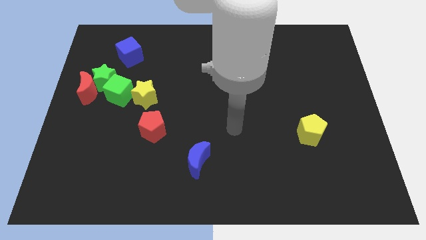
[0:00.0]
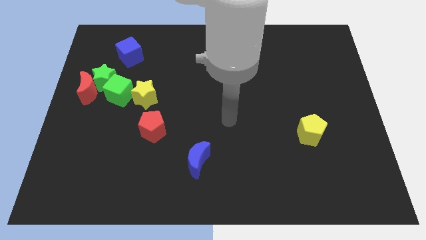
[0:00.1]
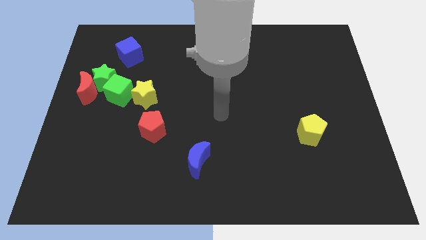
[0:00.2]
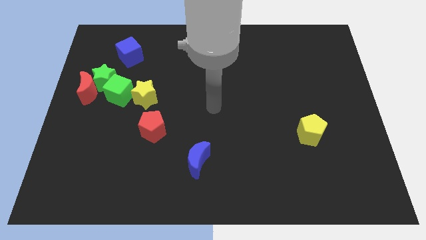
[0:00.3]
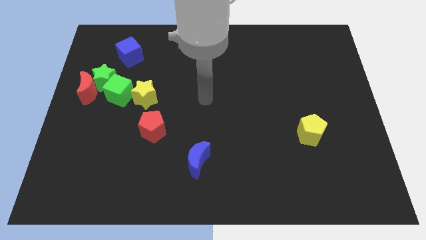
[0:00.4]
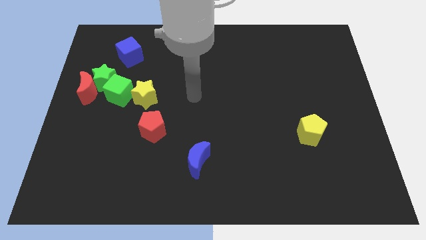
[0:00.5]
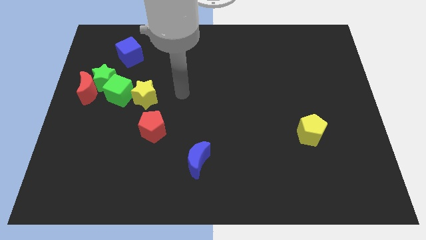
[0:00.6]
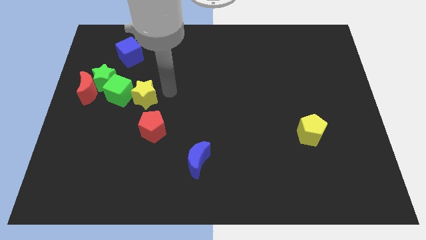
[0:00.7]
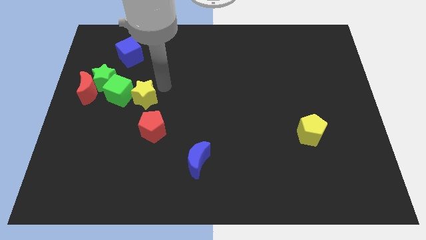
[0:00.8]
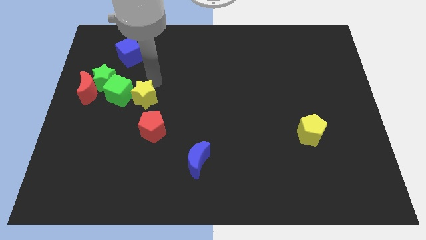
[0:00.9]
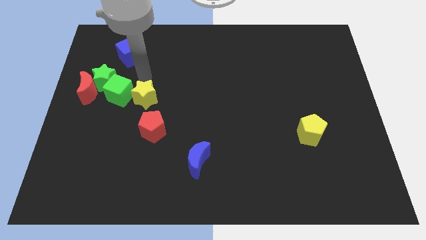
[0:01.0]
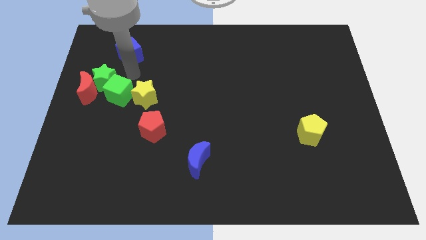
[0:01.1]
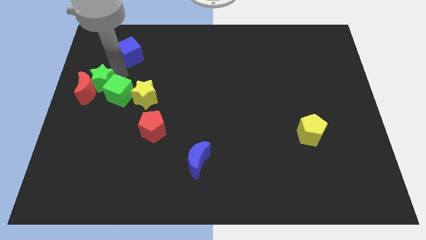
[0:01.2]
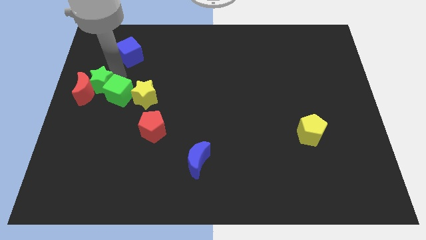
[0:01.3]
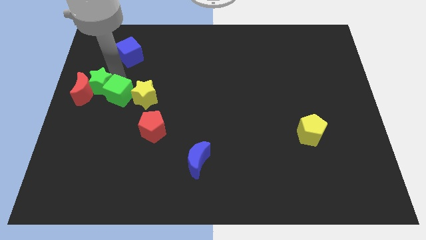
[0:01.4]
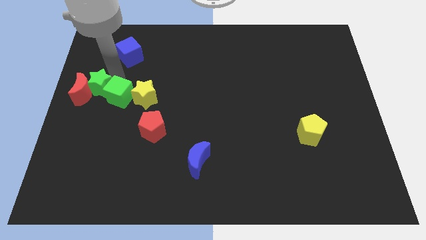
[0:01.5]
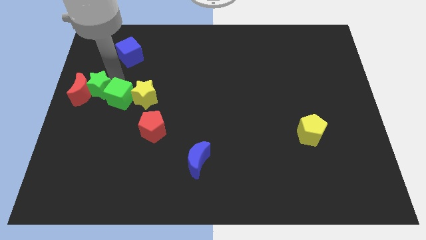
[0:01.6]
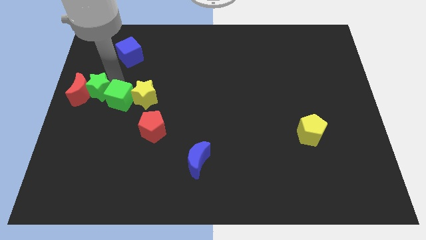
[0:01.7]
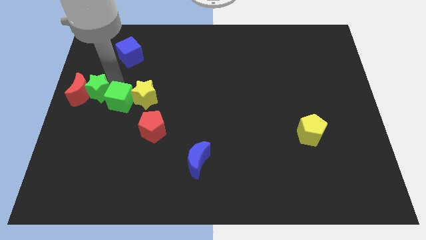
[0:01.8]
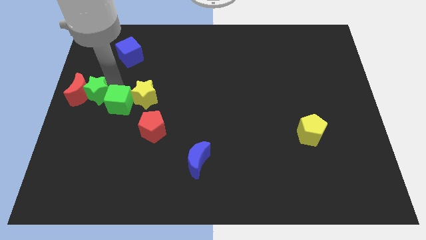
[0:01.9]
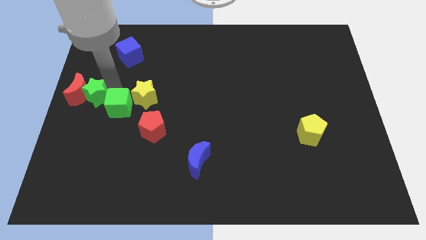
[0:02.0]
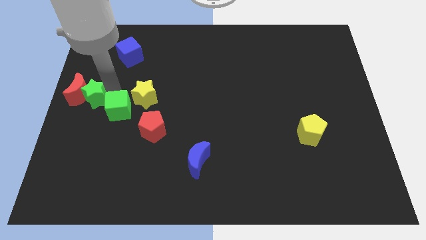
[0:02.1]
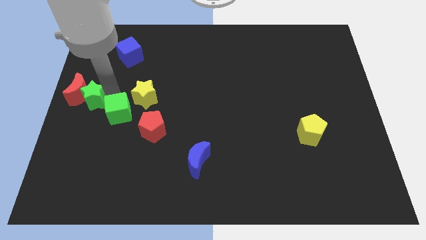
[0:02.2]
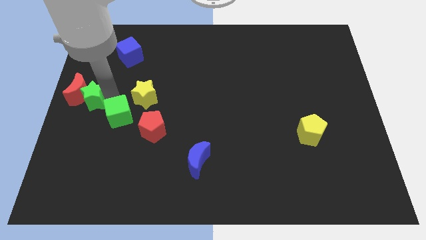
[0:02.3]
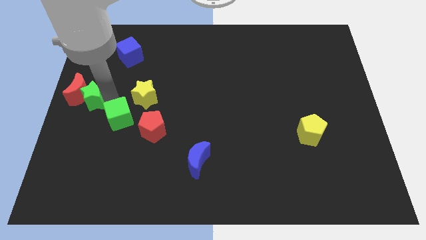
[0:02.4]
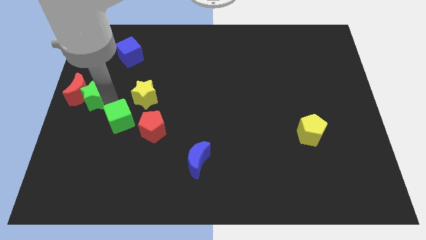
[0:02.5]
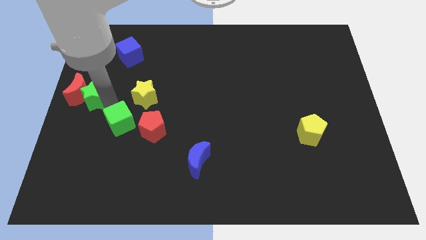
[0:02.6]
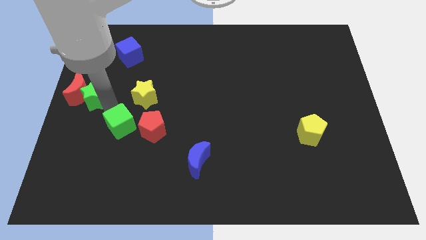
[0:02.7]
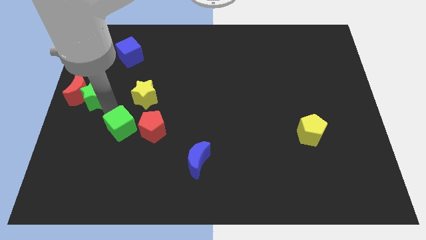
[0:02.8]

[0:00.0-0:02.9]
move the green cube diagonally downwards and right a little

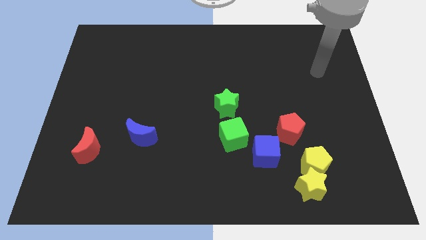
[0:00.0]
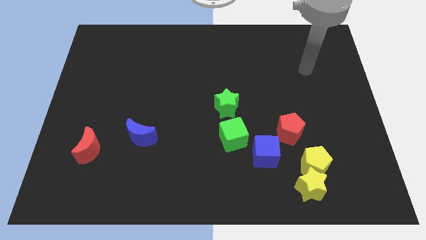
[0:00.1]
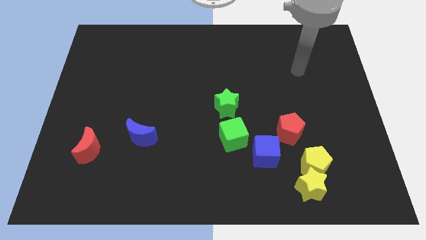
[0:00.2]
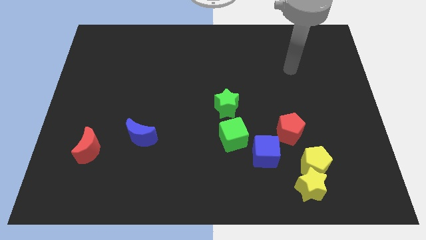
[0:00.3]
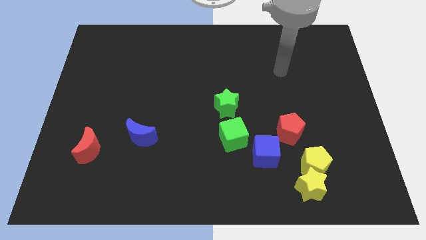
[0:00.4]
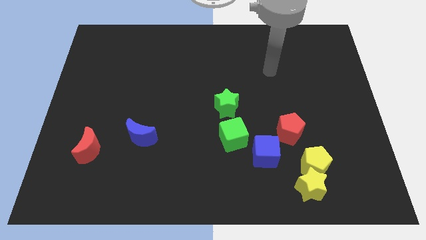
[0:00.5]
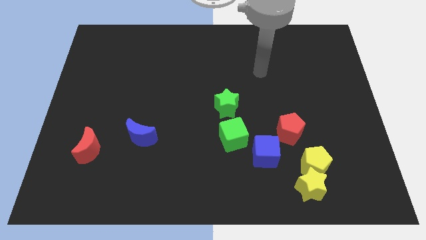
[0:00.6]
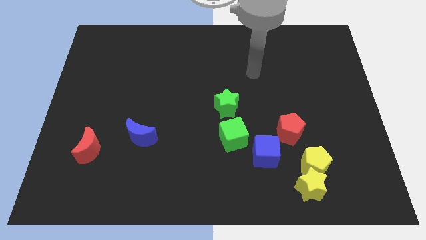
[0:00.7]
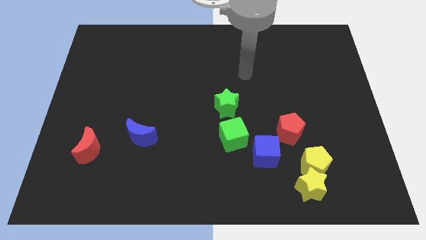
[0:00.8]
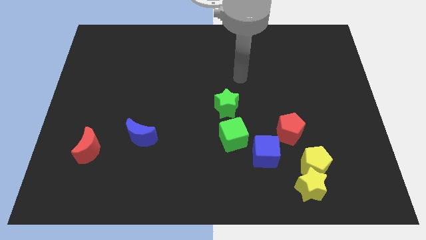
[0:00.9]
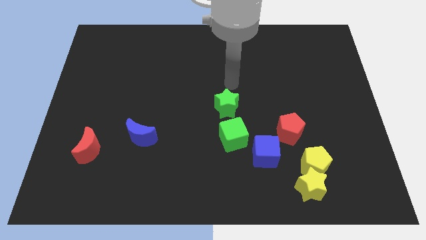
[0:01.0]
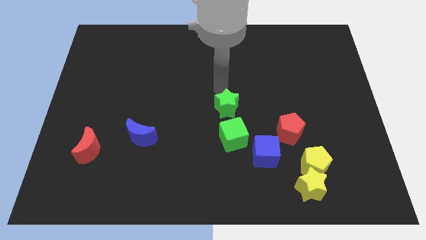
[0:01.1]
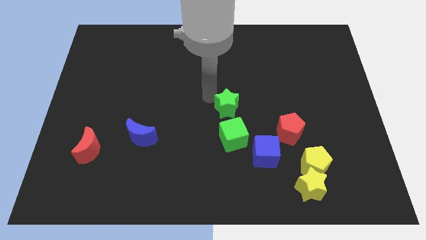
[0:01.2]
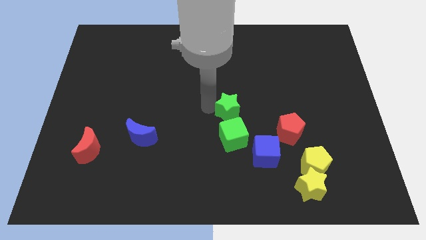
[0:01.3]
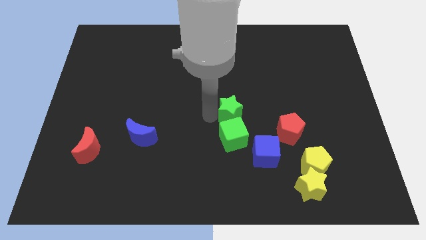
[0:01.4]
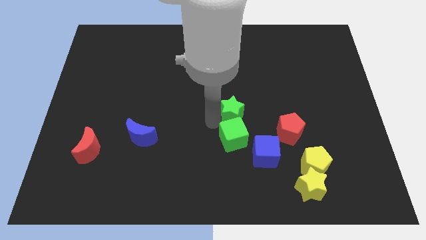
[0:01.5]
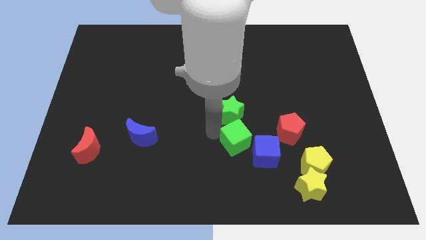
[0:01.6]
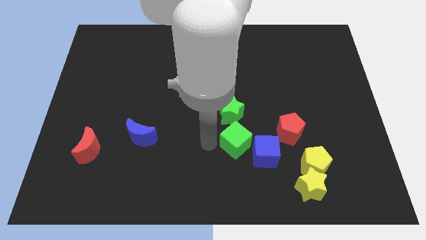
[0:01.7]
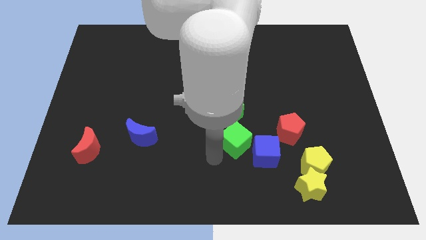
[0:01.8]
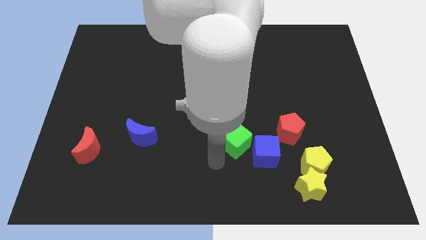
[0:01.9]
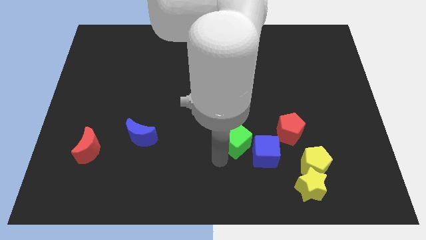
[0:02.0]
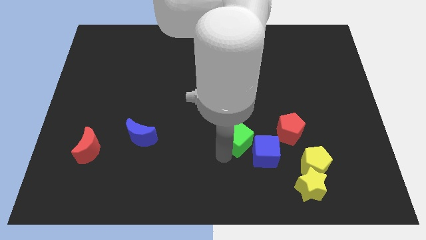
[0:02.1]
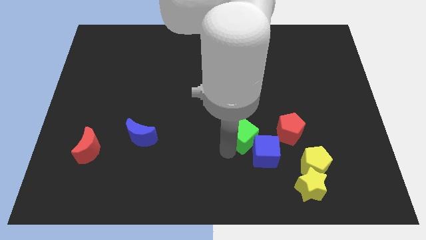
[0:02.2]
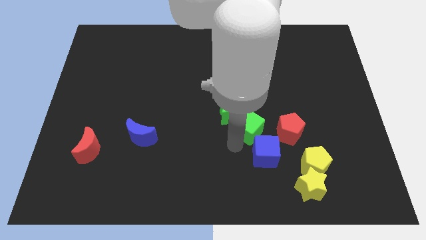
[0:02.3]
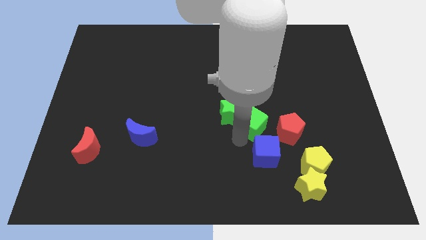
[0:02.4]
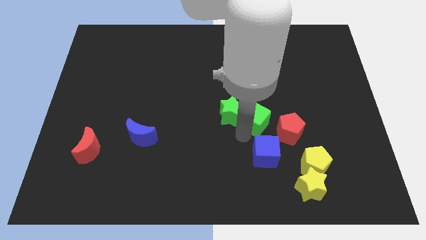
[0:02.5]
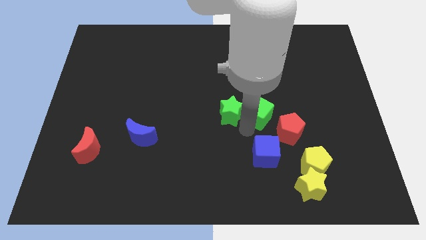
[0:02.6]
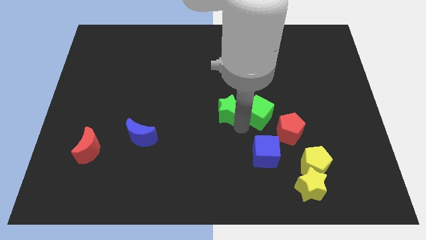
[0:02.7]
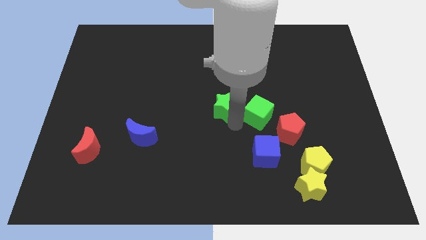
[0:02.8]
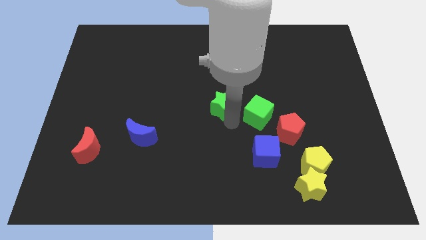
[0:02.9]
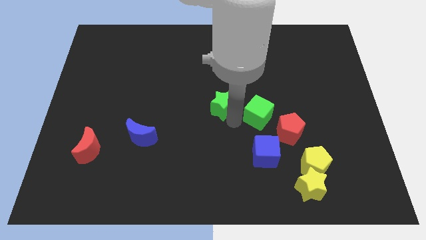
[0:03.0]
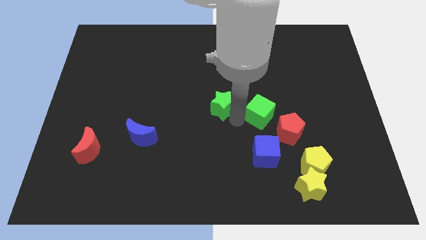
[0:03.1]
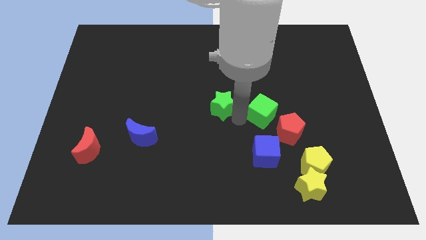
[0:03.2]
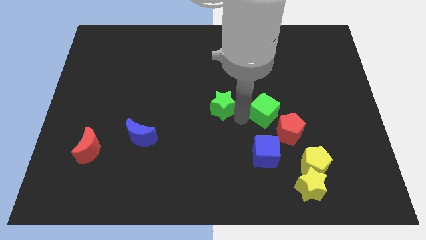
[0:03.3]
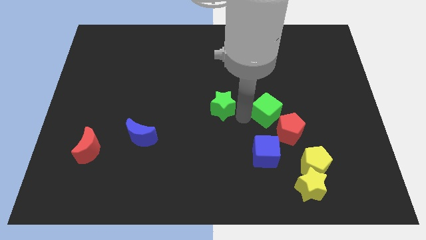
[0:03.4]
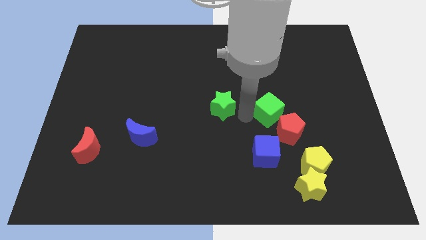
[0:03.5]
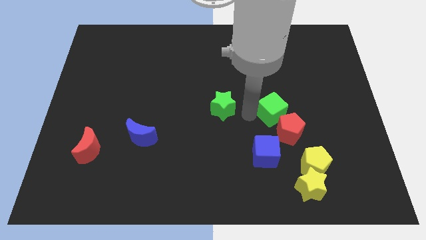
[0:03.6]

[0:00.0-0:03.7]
move the green cube a little right

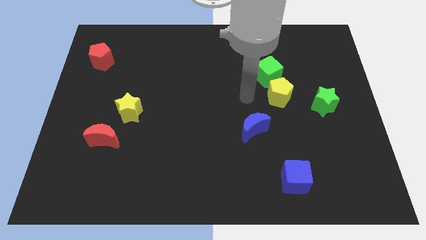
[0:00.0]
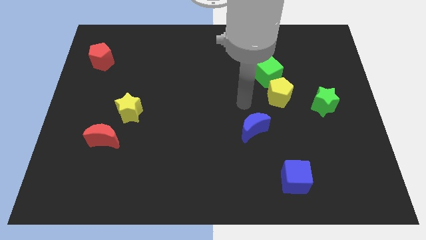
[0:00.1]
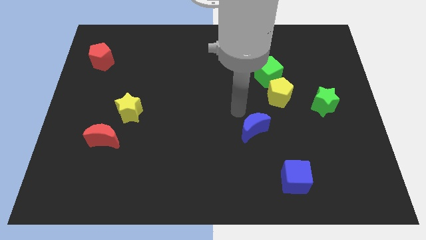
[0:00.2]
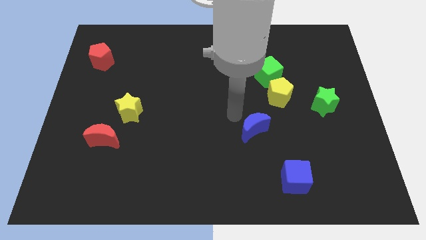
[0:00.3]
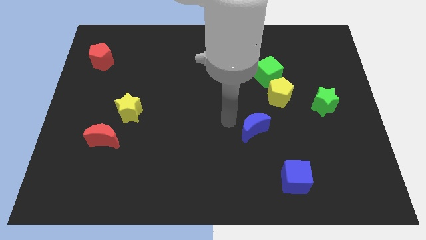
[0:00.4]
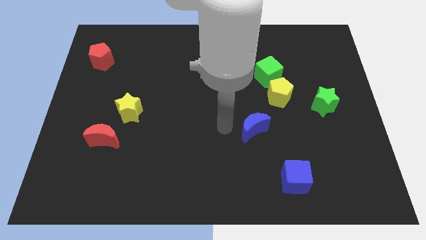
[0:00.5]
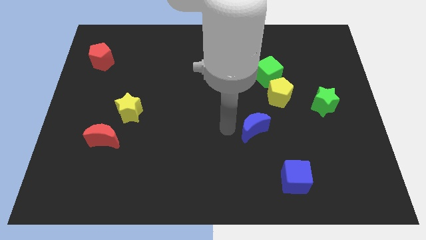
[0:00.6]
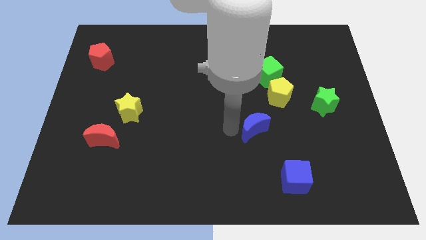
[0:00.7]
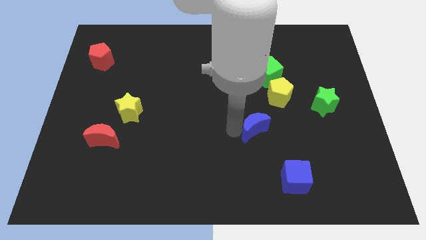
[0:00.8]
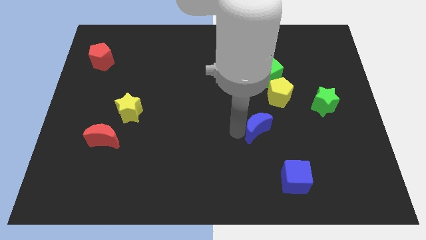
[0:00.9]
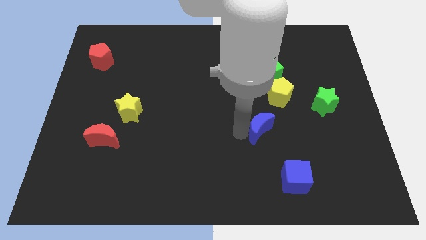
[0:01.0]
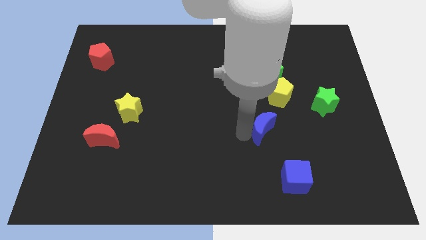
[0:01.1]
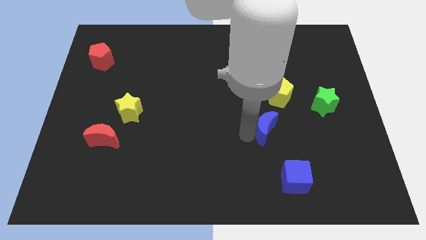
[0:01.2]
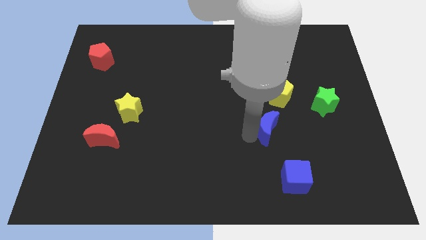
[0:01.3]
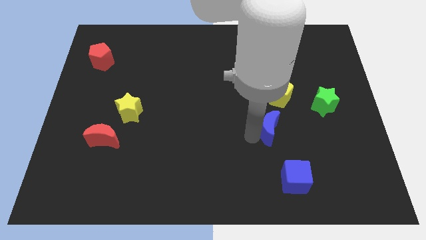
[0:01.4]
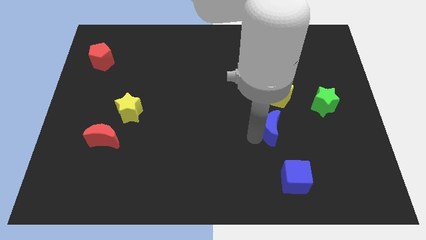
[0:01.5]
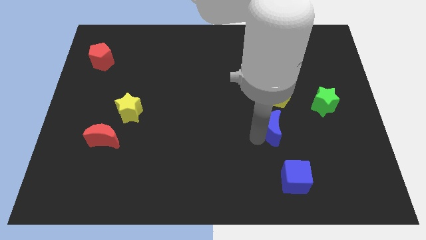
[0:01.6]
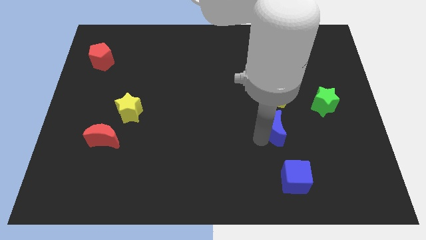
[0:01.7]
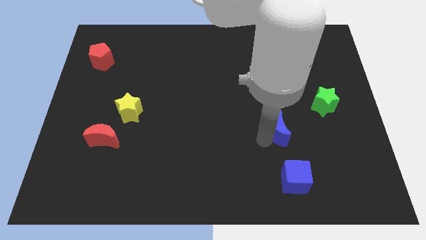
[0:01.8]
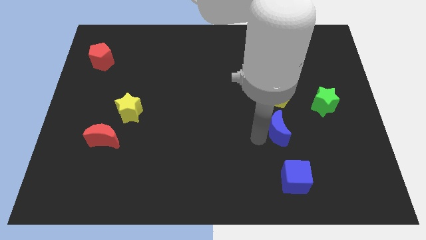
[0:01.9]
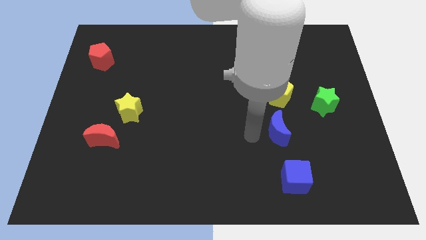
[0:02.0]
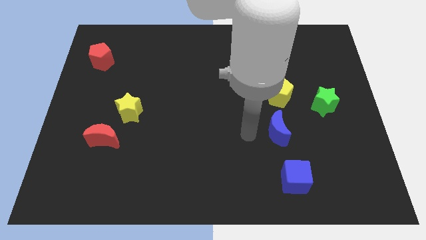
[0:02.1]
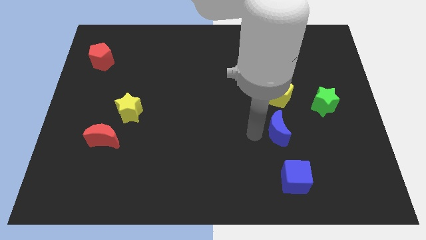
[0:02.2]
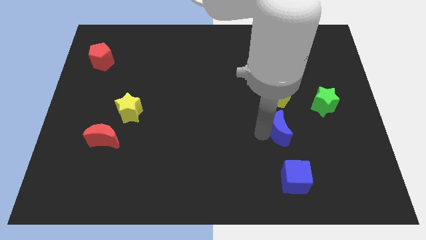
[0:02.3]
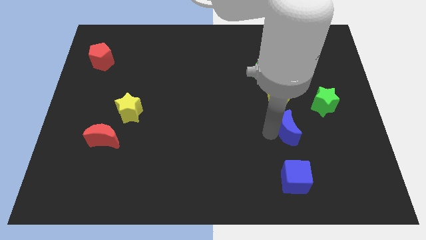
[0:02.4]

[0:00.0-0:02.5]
push the blue moon right somewhat
